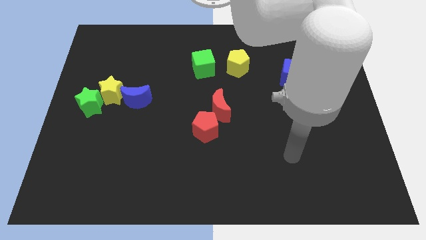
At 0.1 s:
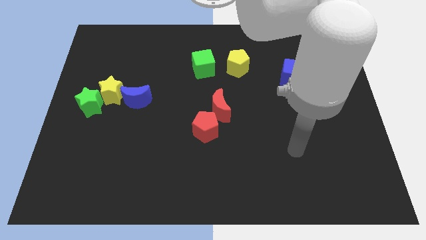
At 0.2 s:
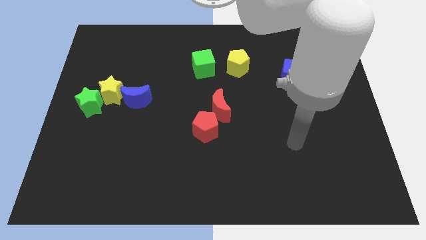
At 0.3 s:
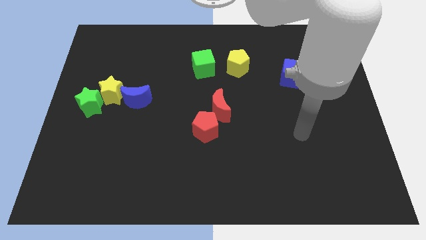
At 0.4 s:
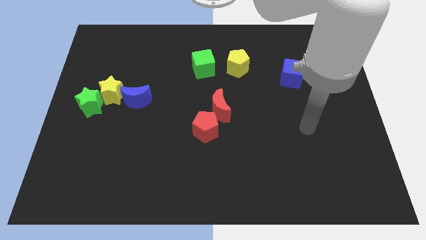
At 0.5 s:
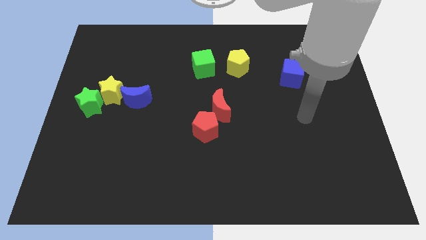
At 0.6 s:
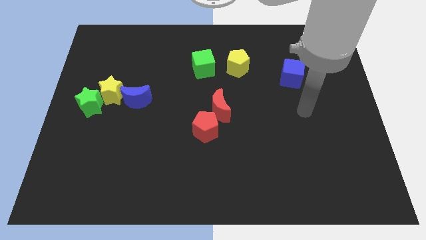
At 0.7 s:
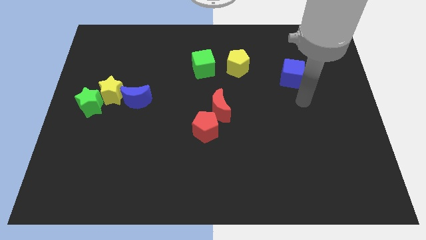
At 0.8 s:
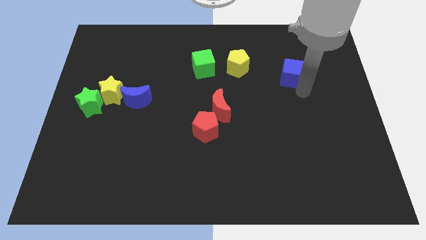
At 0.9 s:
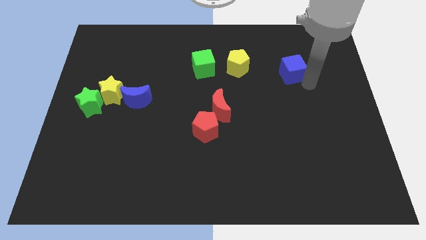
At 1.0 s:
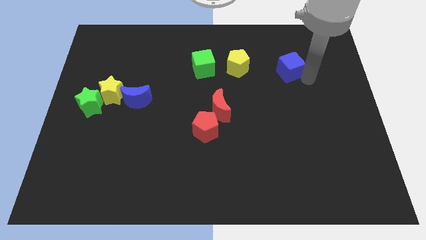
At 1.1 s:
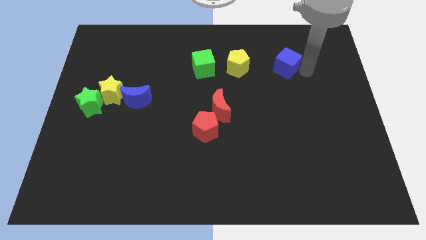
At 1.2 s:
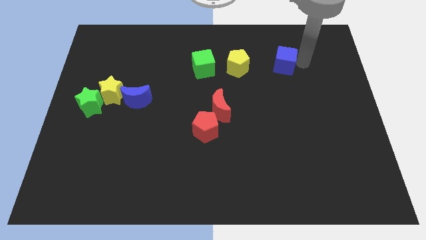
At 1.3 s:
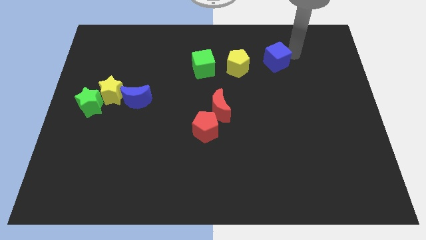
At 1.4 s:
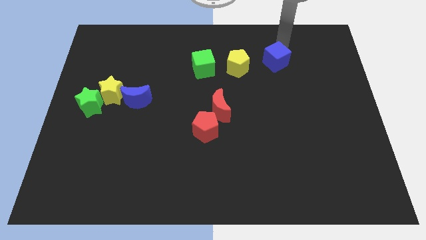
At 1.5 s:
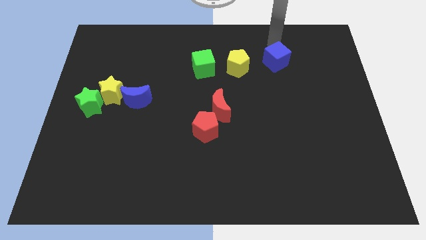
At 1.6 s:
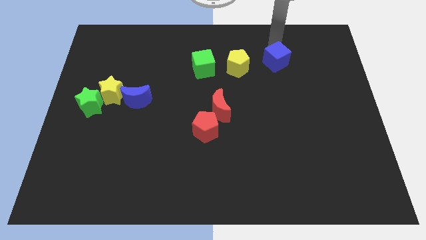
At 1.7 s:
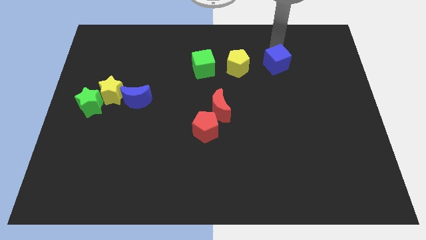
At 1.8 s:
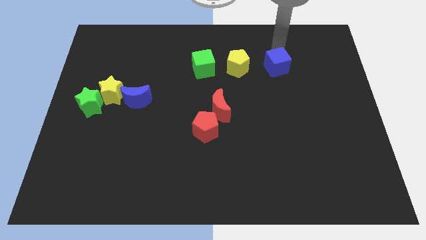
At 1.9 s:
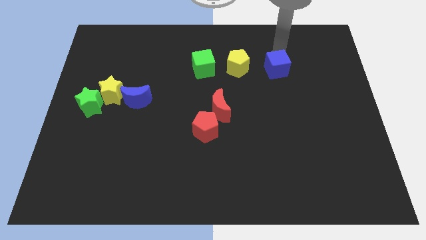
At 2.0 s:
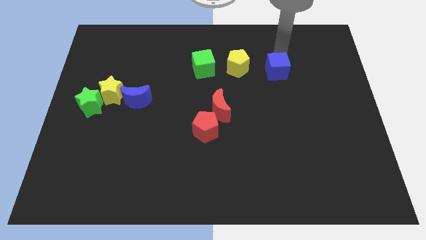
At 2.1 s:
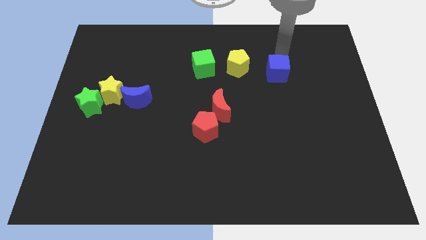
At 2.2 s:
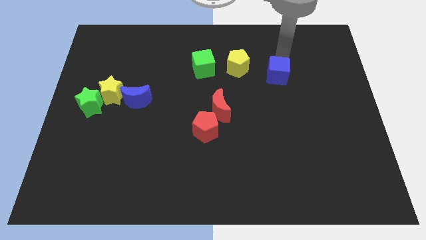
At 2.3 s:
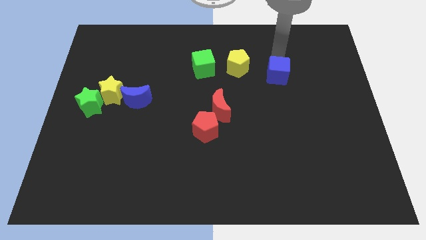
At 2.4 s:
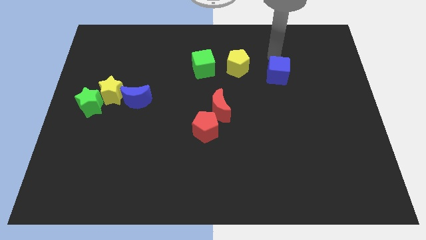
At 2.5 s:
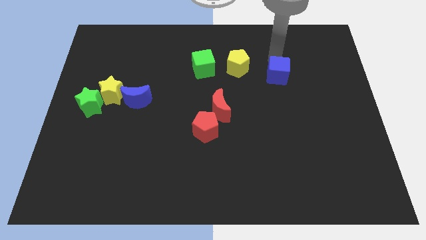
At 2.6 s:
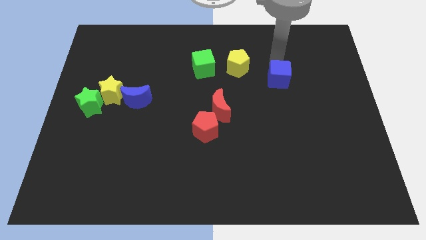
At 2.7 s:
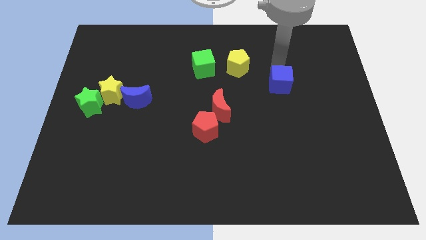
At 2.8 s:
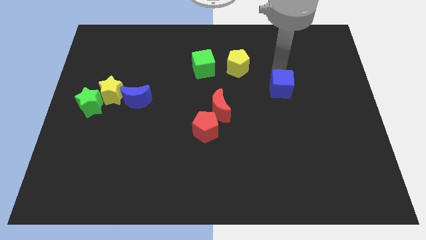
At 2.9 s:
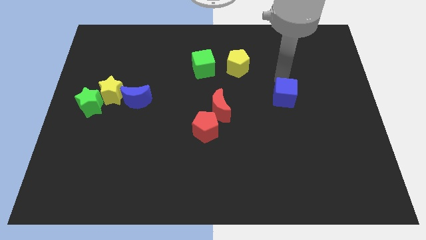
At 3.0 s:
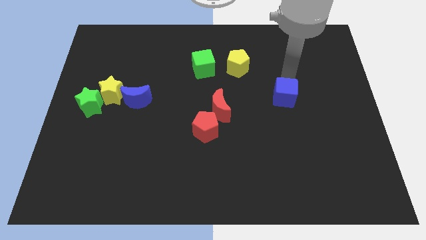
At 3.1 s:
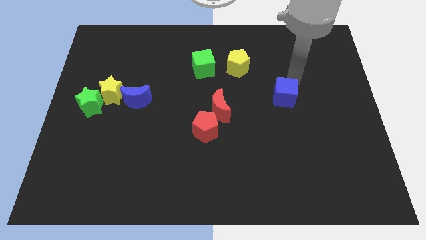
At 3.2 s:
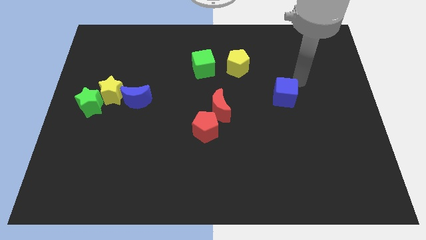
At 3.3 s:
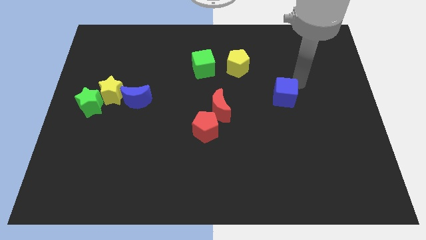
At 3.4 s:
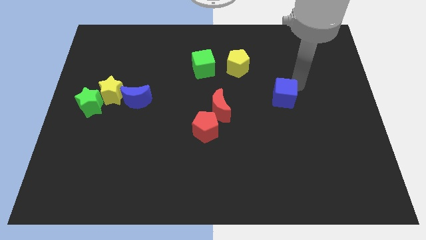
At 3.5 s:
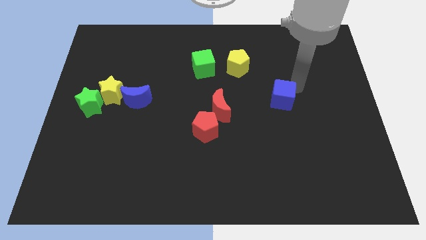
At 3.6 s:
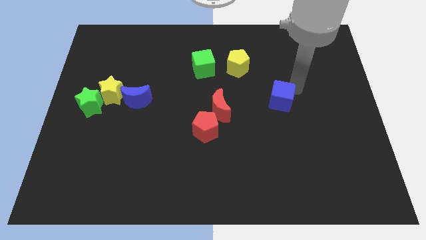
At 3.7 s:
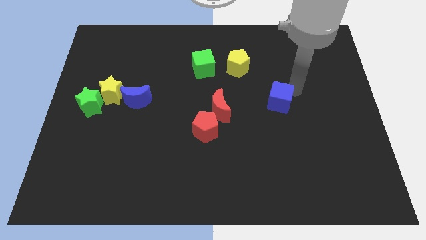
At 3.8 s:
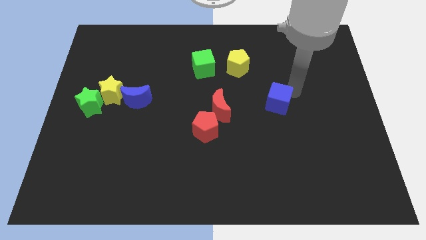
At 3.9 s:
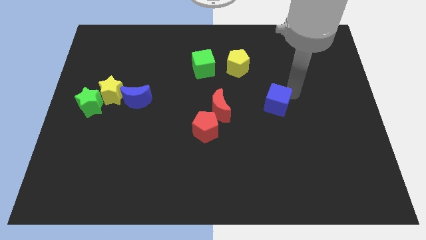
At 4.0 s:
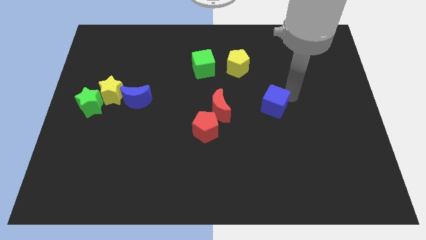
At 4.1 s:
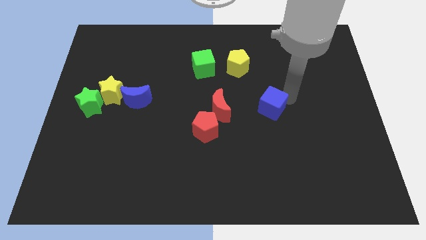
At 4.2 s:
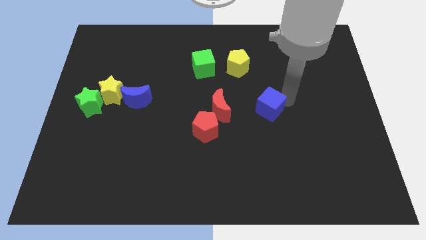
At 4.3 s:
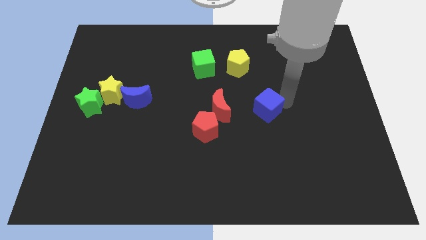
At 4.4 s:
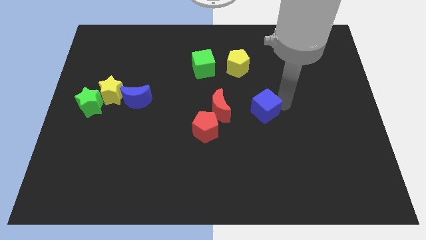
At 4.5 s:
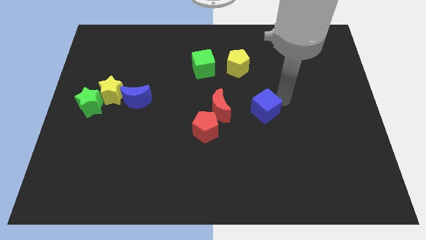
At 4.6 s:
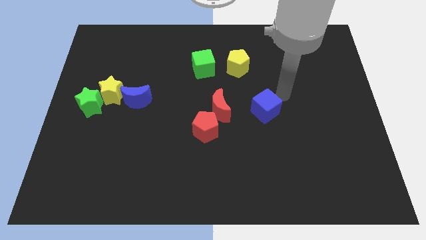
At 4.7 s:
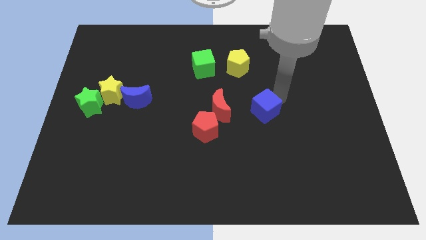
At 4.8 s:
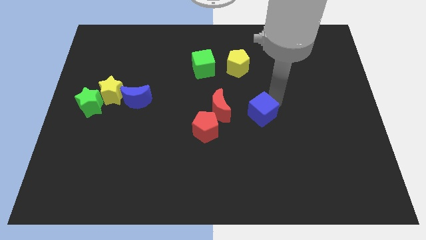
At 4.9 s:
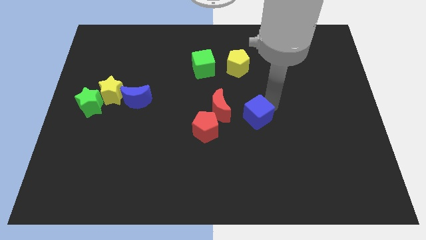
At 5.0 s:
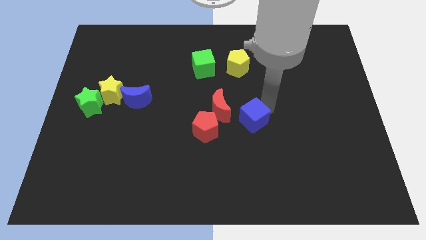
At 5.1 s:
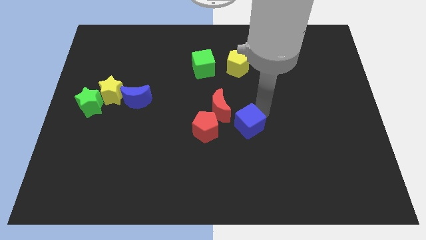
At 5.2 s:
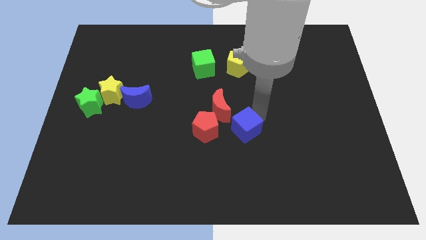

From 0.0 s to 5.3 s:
slide the blue cube downwards and to the left

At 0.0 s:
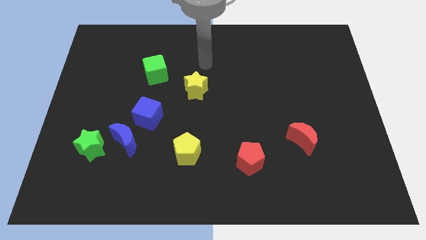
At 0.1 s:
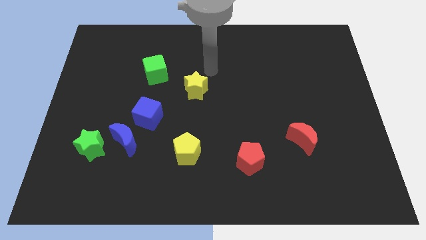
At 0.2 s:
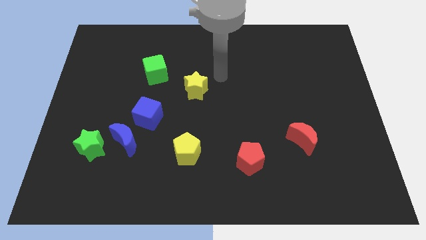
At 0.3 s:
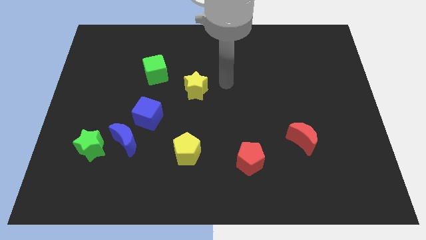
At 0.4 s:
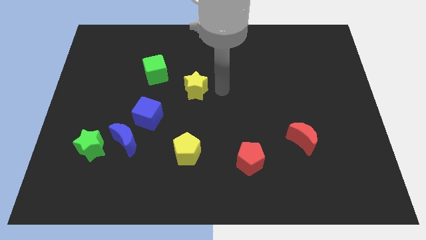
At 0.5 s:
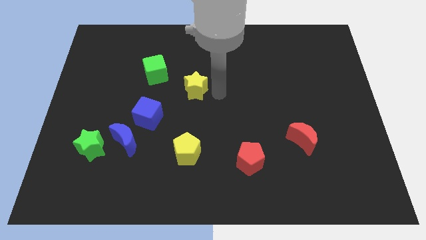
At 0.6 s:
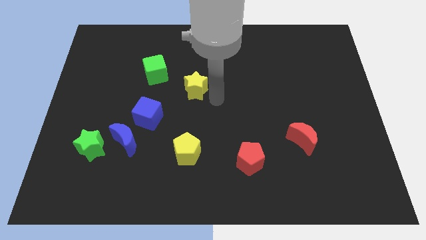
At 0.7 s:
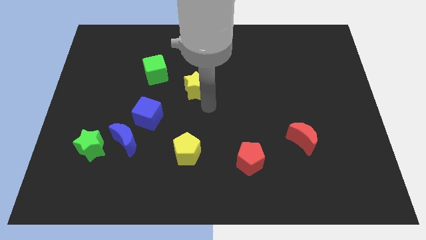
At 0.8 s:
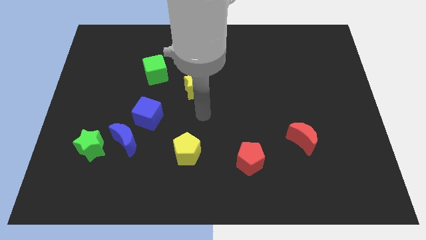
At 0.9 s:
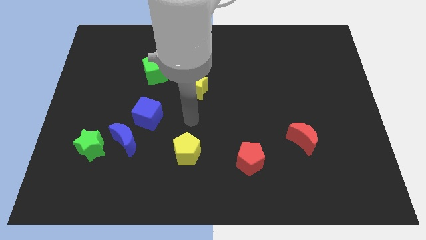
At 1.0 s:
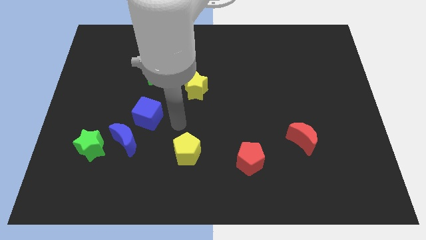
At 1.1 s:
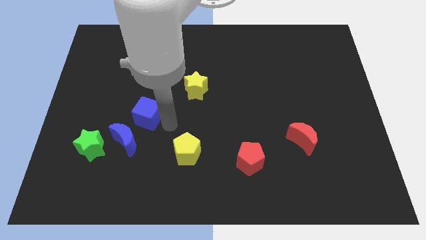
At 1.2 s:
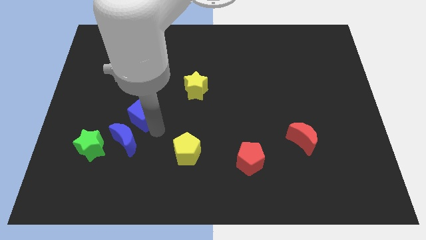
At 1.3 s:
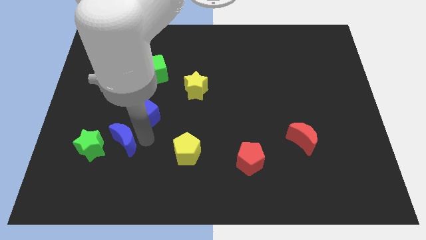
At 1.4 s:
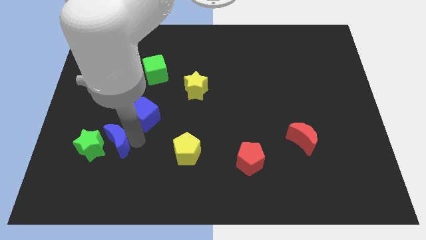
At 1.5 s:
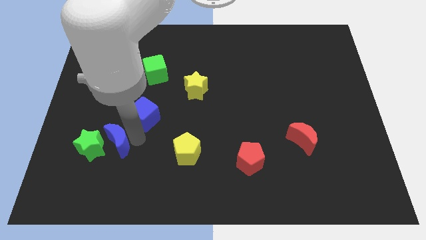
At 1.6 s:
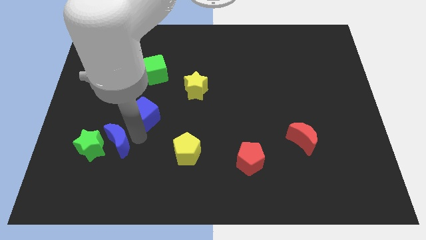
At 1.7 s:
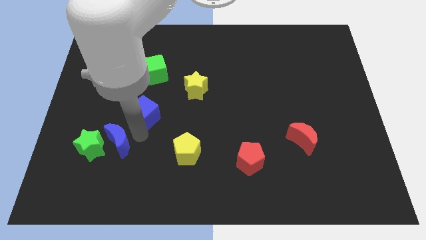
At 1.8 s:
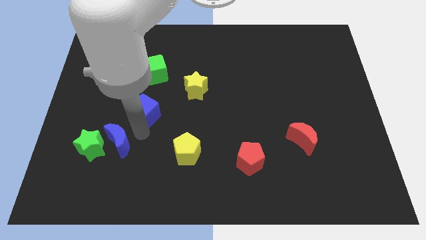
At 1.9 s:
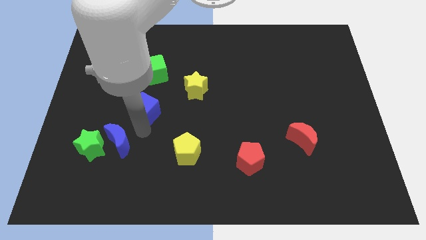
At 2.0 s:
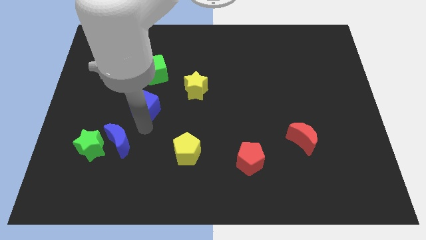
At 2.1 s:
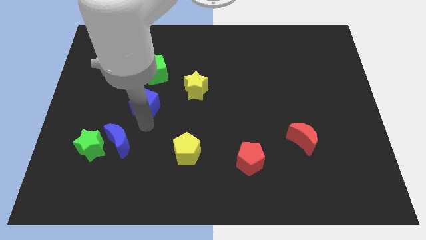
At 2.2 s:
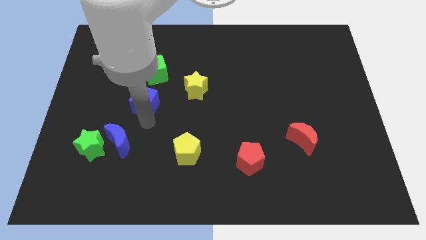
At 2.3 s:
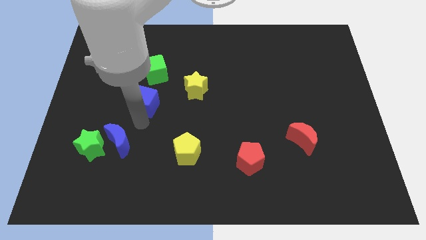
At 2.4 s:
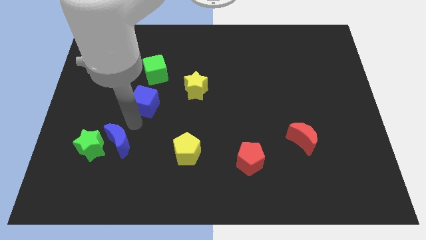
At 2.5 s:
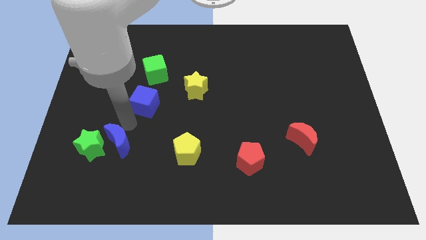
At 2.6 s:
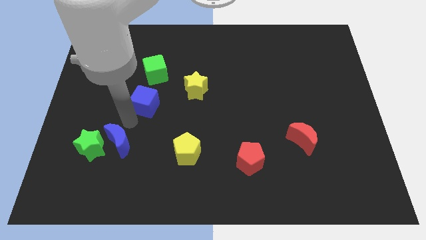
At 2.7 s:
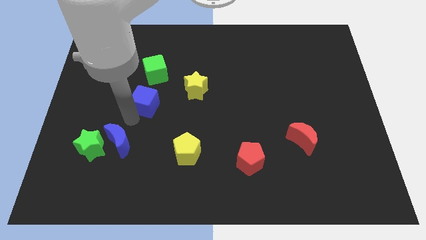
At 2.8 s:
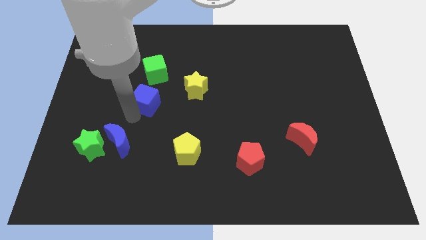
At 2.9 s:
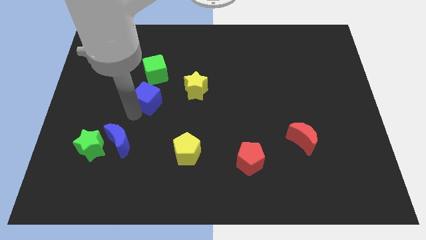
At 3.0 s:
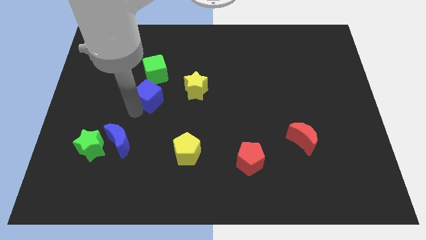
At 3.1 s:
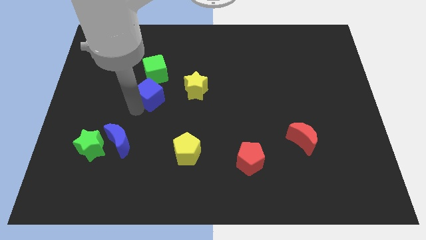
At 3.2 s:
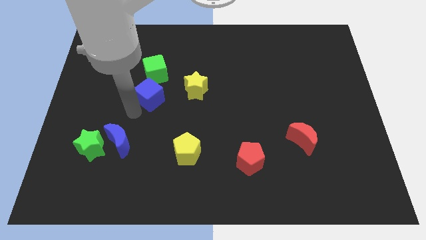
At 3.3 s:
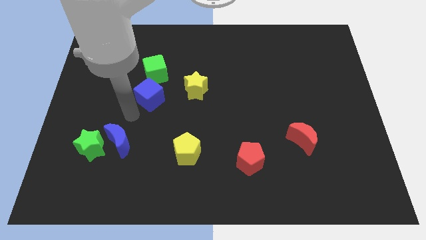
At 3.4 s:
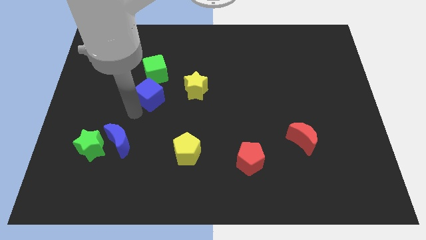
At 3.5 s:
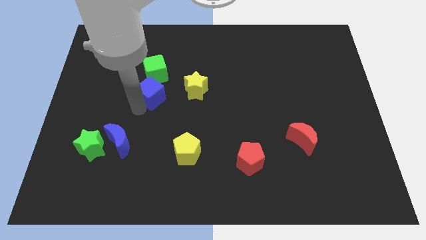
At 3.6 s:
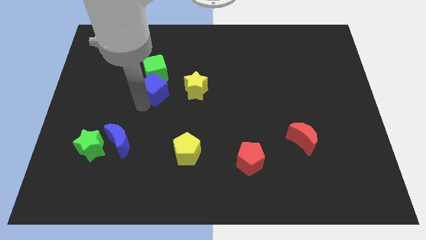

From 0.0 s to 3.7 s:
slide the blue cube up slightly
